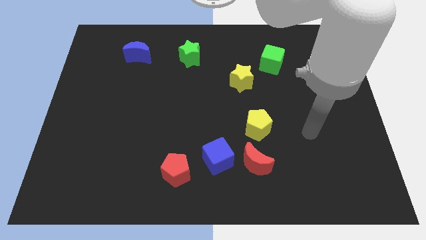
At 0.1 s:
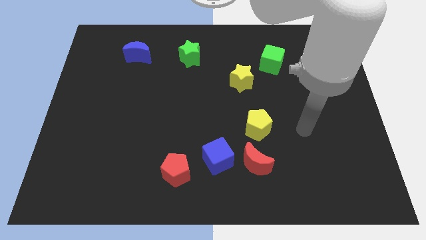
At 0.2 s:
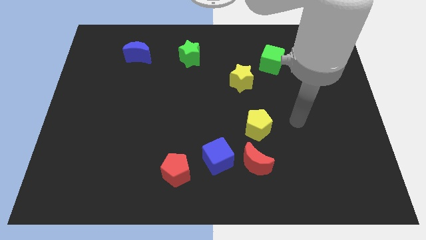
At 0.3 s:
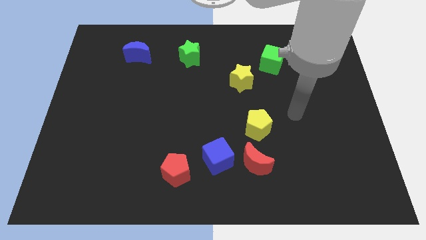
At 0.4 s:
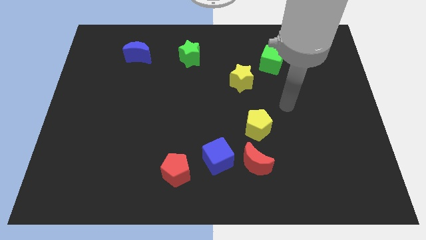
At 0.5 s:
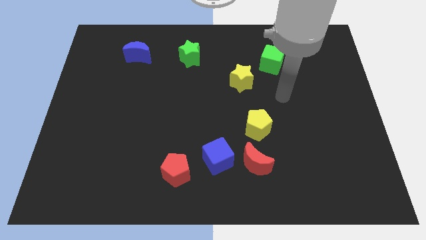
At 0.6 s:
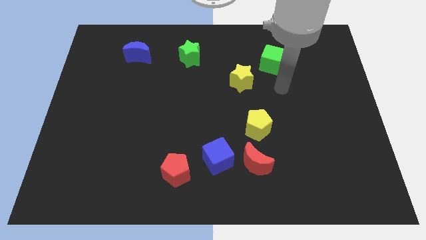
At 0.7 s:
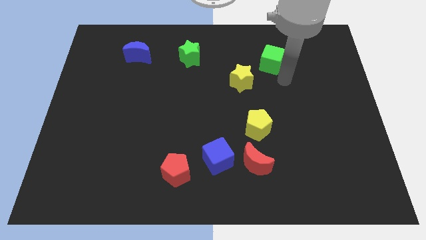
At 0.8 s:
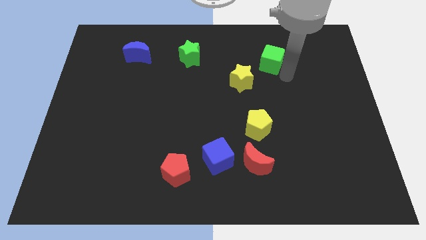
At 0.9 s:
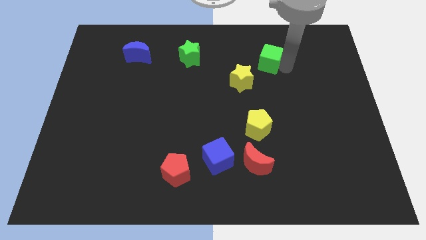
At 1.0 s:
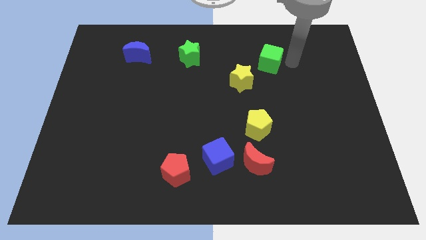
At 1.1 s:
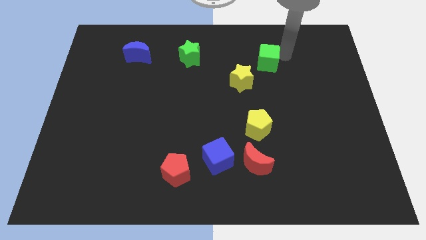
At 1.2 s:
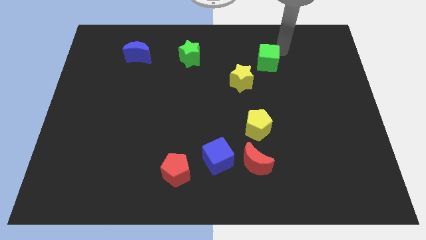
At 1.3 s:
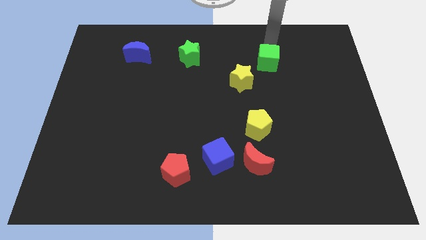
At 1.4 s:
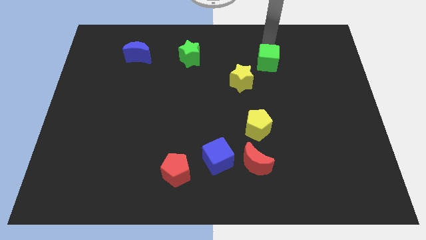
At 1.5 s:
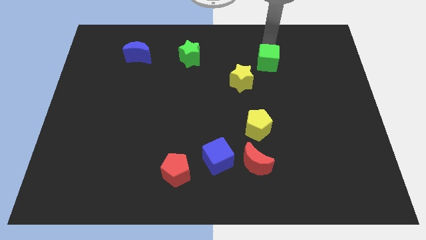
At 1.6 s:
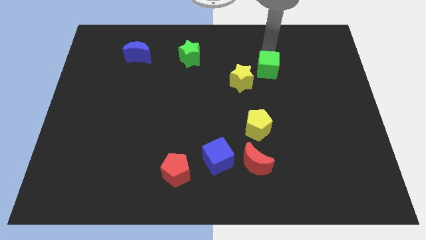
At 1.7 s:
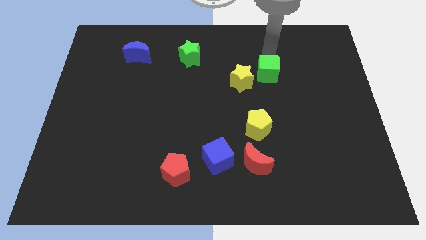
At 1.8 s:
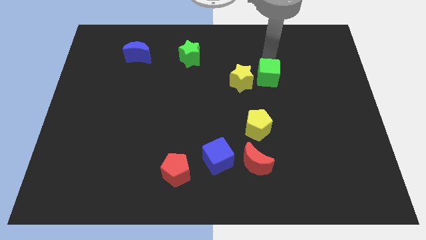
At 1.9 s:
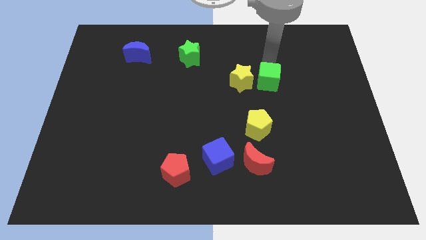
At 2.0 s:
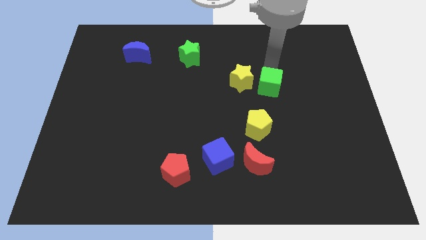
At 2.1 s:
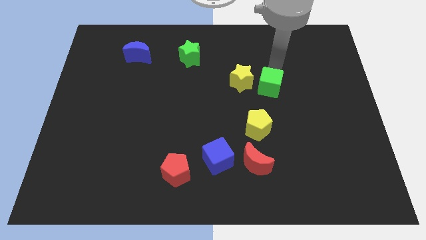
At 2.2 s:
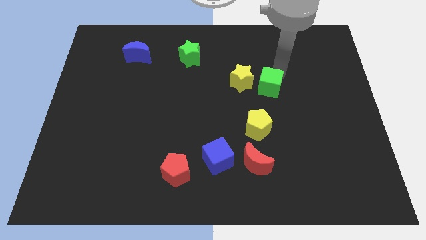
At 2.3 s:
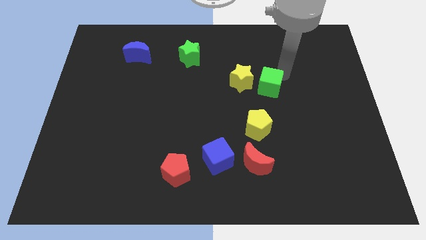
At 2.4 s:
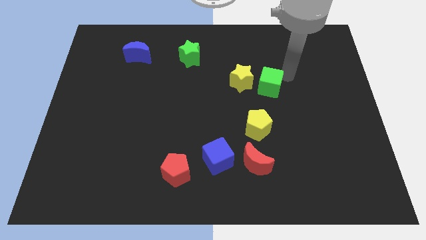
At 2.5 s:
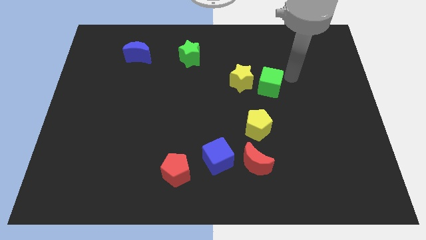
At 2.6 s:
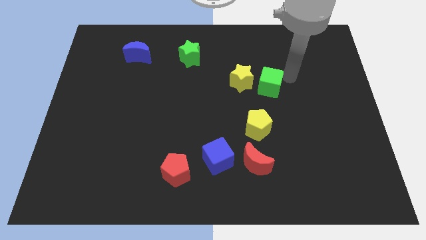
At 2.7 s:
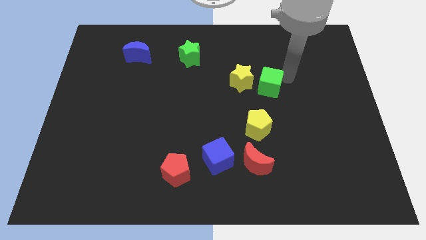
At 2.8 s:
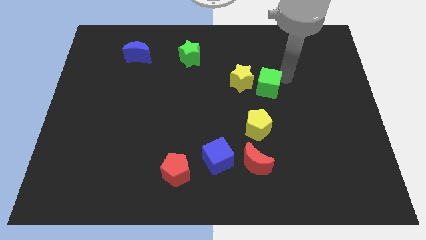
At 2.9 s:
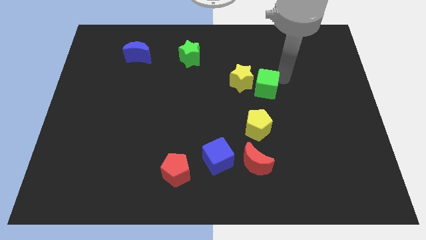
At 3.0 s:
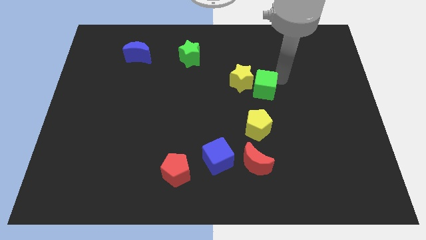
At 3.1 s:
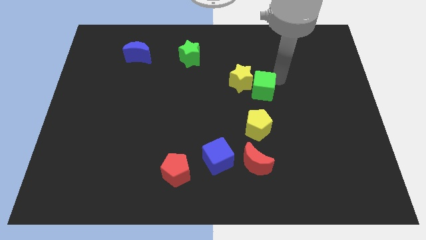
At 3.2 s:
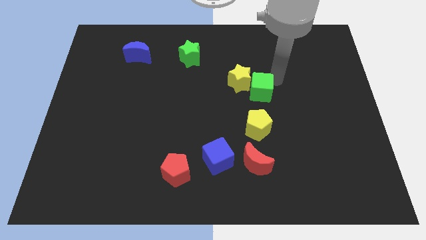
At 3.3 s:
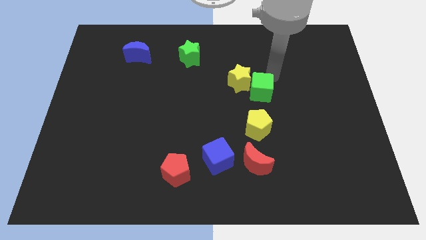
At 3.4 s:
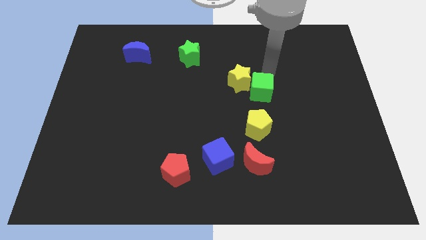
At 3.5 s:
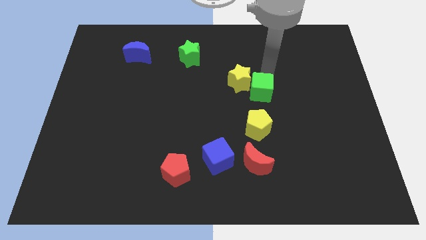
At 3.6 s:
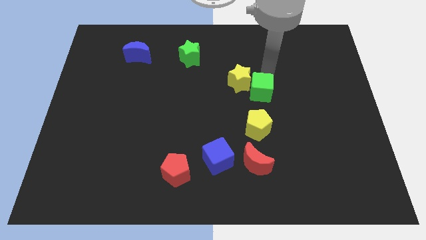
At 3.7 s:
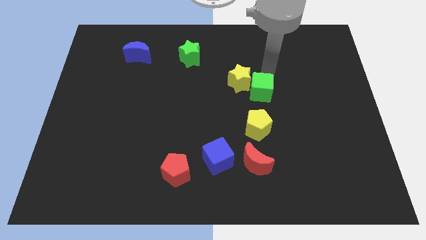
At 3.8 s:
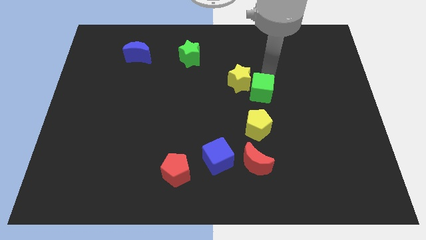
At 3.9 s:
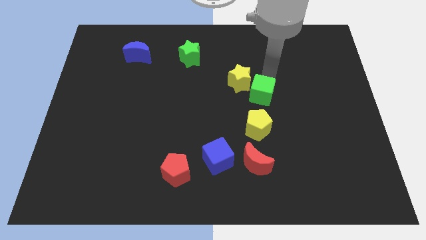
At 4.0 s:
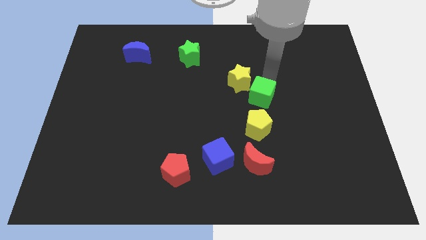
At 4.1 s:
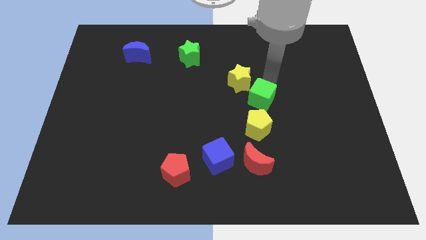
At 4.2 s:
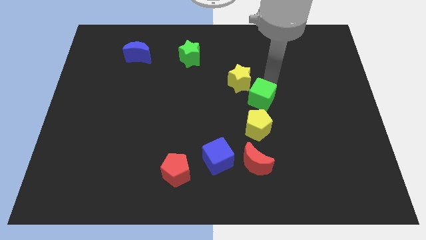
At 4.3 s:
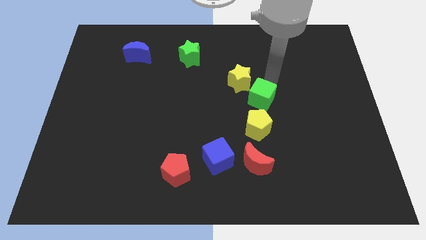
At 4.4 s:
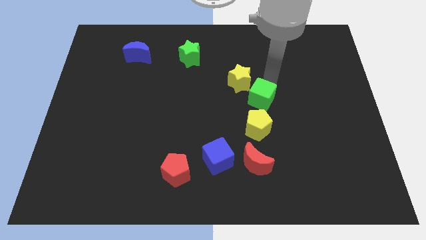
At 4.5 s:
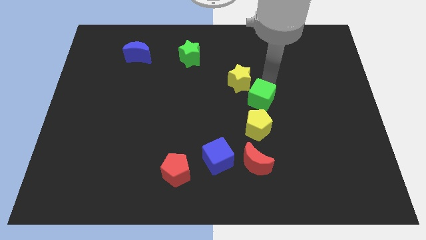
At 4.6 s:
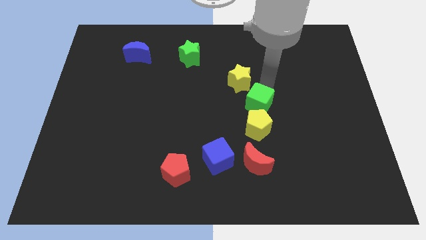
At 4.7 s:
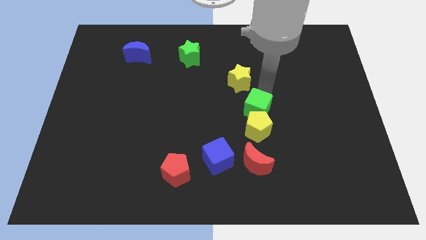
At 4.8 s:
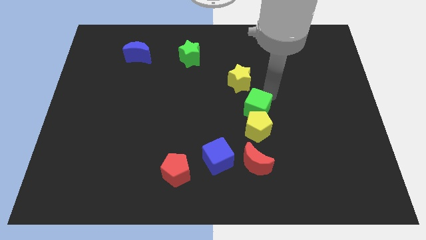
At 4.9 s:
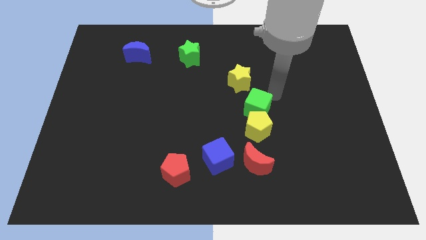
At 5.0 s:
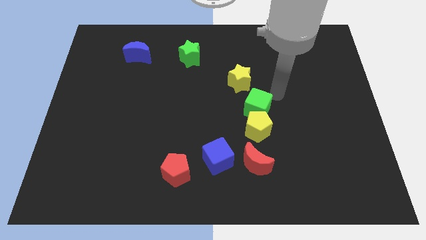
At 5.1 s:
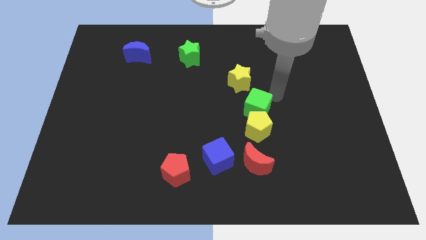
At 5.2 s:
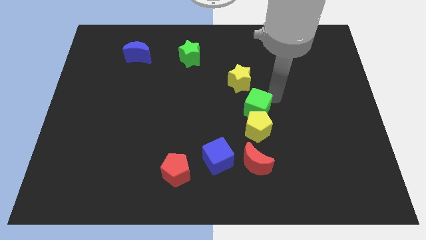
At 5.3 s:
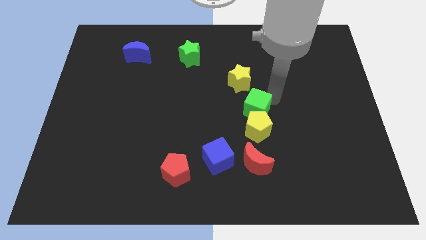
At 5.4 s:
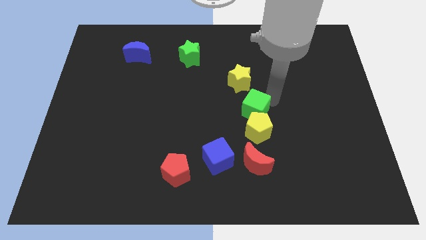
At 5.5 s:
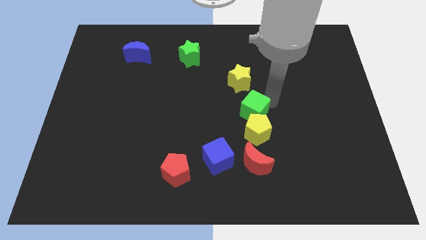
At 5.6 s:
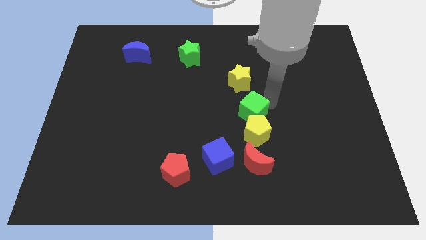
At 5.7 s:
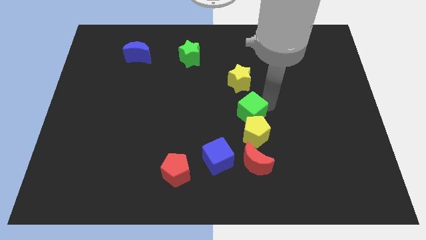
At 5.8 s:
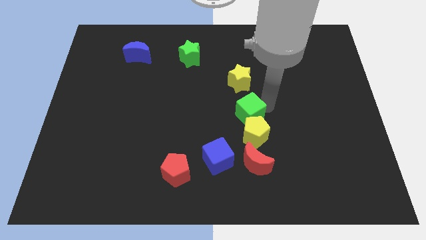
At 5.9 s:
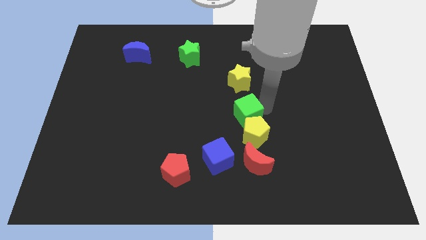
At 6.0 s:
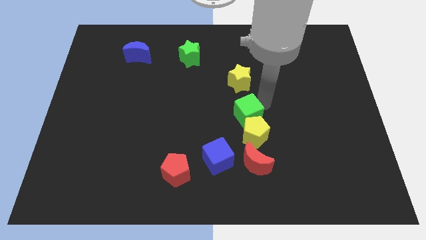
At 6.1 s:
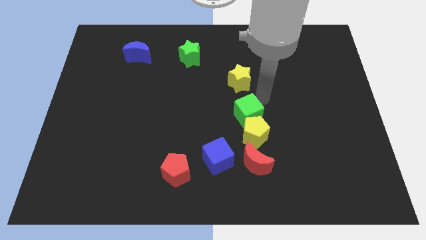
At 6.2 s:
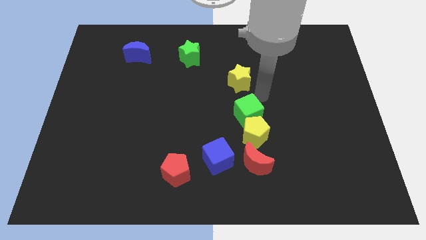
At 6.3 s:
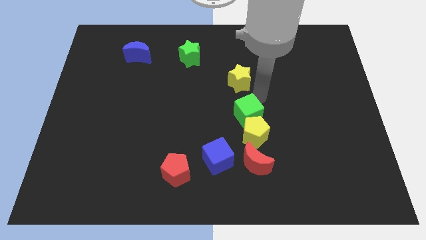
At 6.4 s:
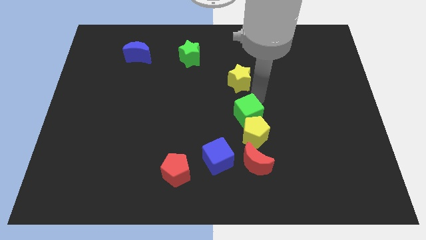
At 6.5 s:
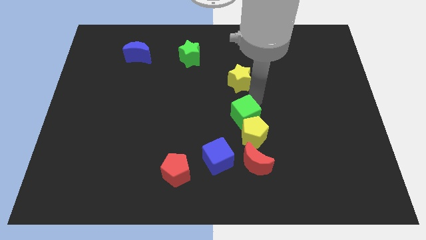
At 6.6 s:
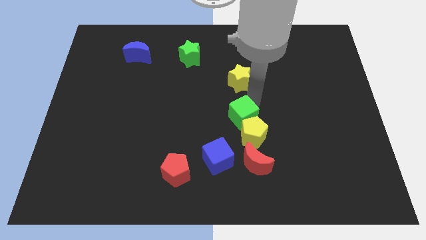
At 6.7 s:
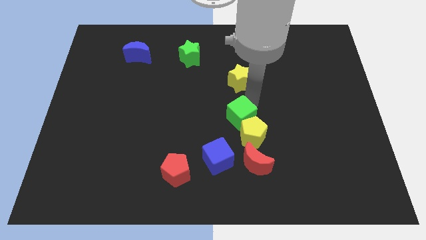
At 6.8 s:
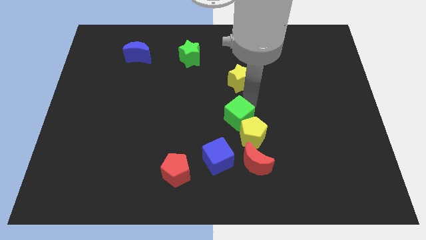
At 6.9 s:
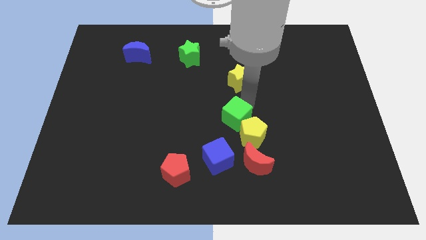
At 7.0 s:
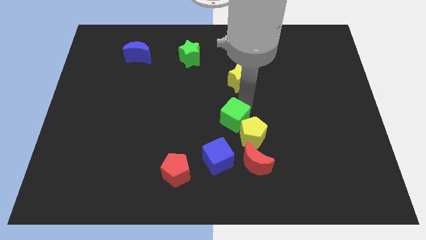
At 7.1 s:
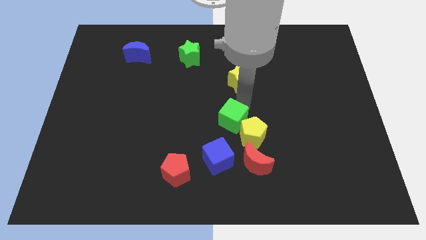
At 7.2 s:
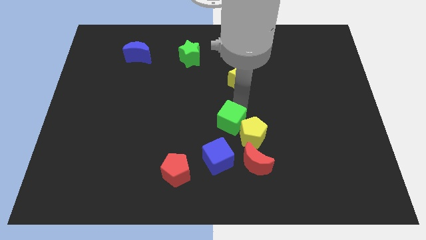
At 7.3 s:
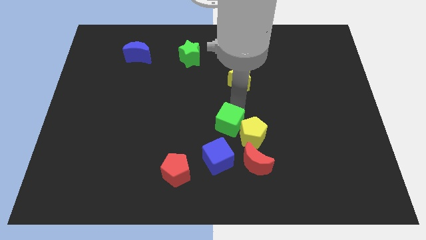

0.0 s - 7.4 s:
put the green cube to the top left side of the red moon

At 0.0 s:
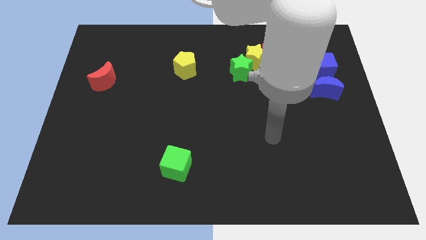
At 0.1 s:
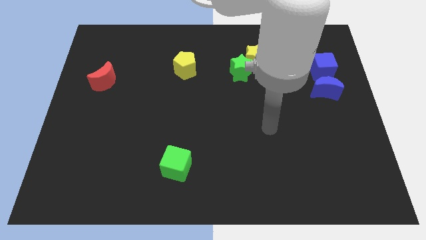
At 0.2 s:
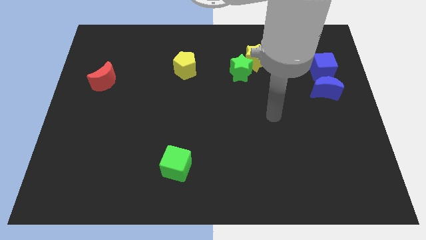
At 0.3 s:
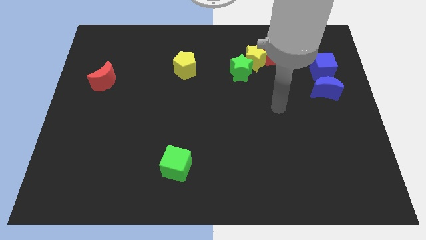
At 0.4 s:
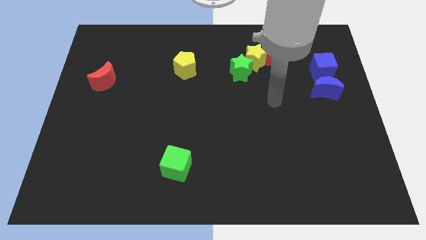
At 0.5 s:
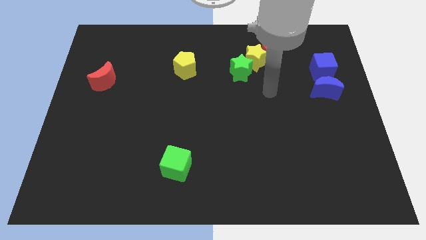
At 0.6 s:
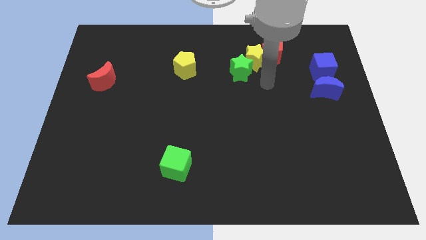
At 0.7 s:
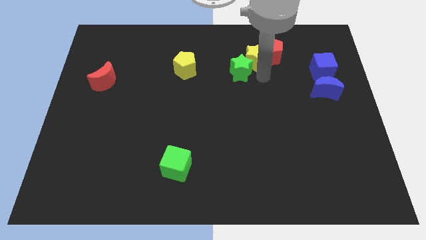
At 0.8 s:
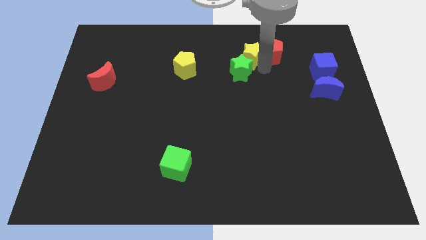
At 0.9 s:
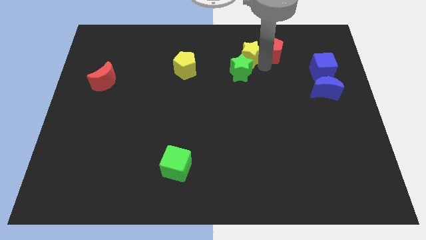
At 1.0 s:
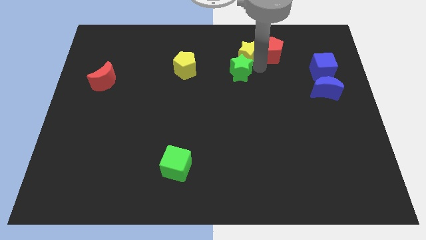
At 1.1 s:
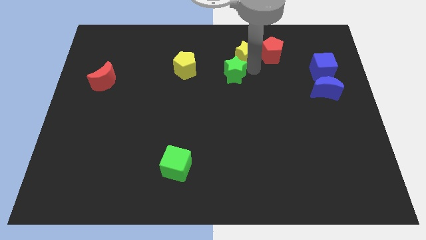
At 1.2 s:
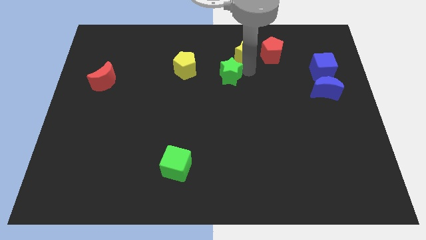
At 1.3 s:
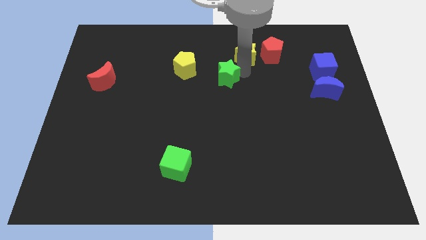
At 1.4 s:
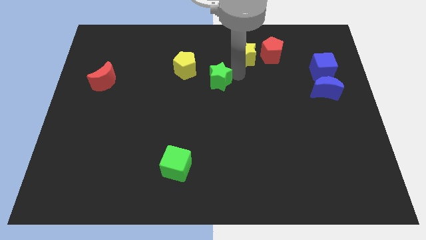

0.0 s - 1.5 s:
put the green star diagonally down and to the right of the yellow pentagon
